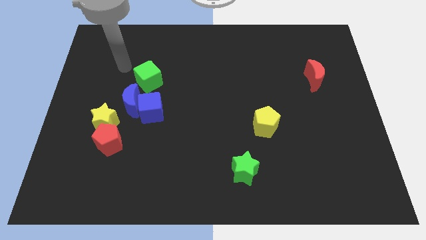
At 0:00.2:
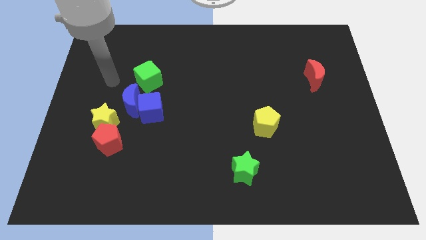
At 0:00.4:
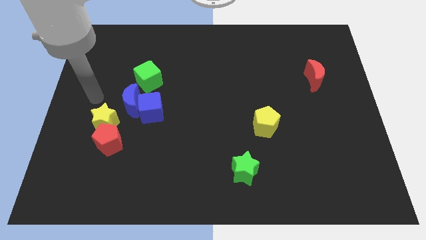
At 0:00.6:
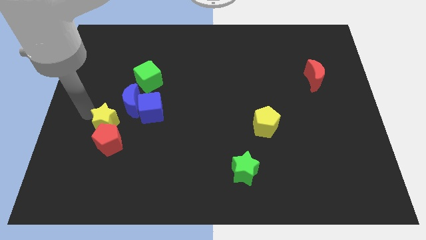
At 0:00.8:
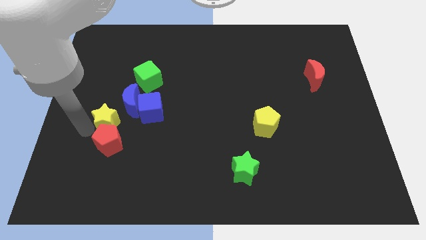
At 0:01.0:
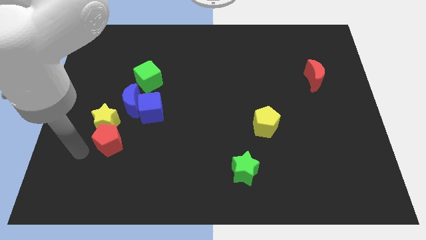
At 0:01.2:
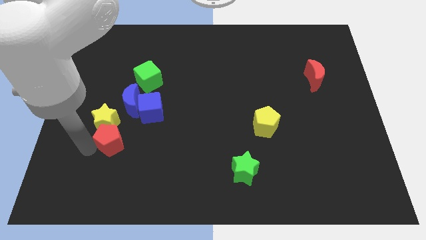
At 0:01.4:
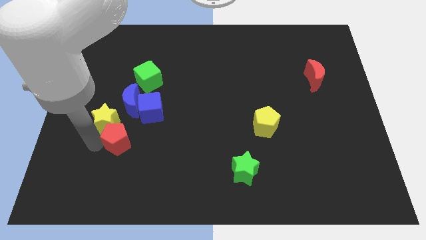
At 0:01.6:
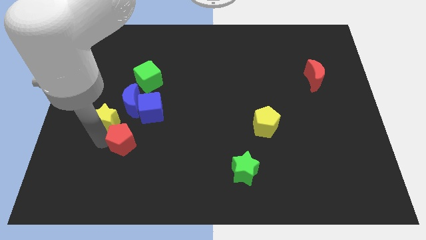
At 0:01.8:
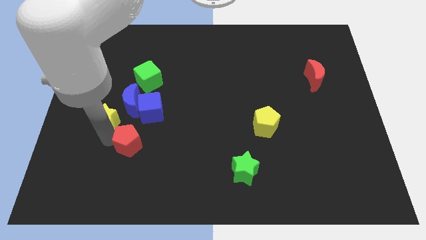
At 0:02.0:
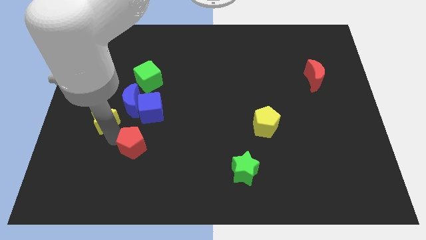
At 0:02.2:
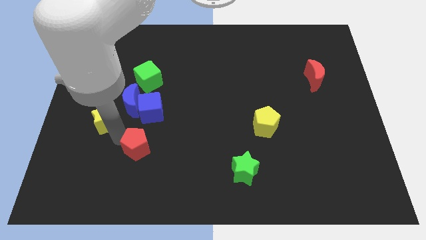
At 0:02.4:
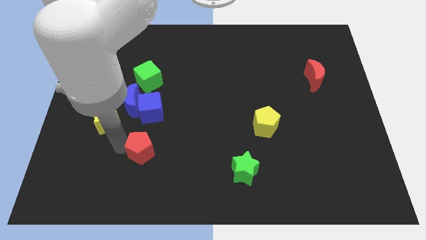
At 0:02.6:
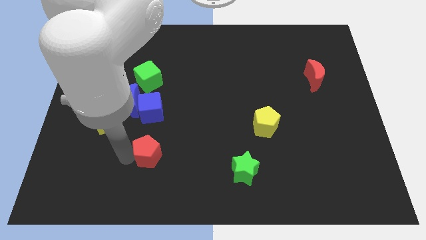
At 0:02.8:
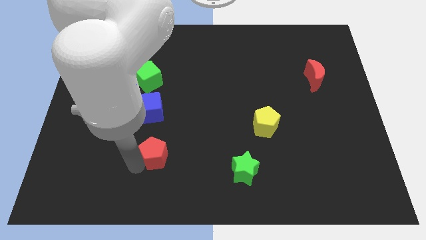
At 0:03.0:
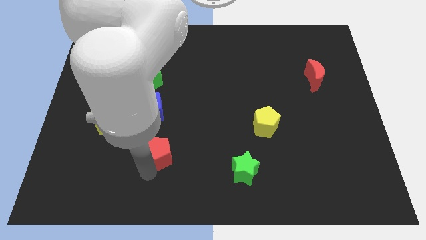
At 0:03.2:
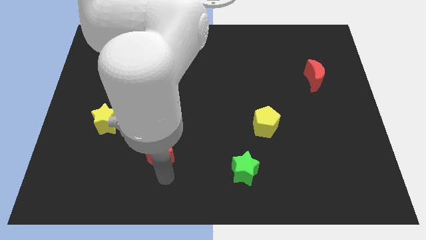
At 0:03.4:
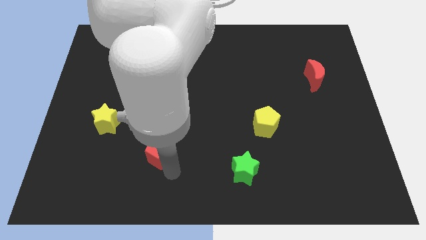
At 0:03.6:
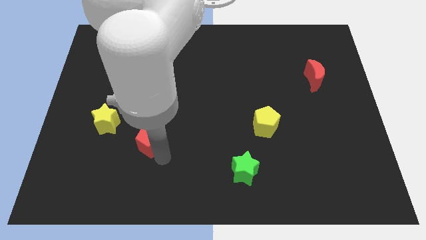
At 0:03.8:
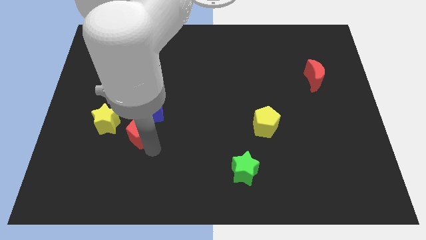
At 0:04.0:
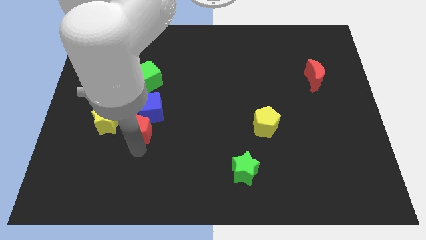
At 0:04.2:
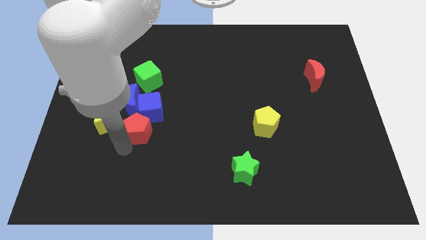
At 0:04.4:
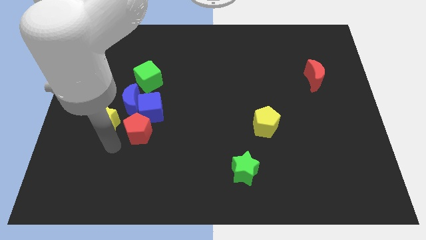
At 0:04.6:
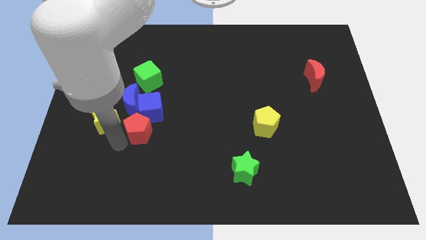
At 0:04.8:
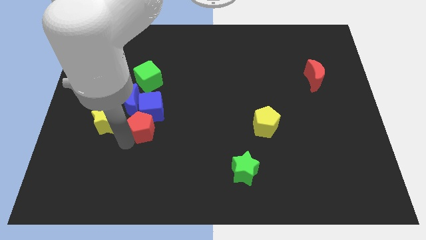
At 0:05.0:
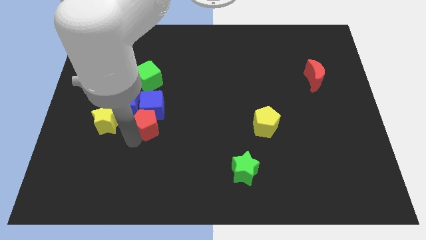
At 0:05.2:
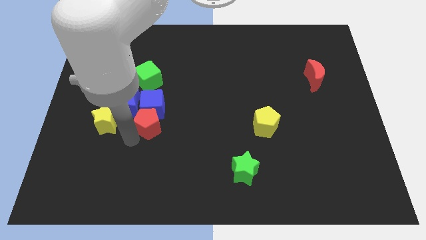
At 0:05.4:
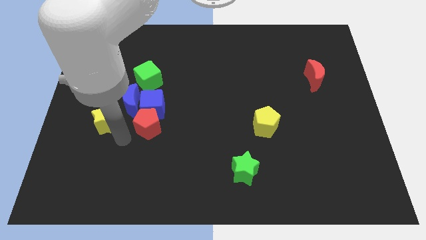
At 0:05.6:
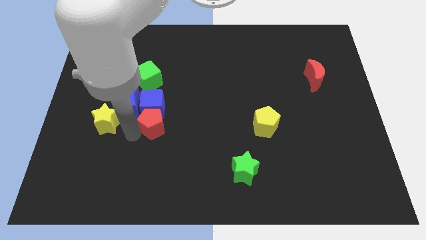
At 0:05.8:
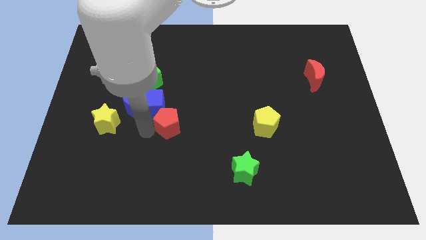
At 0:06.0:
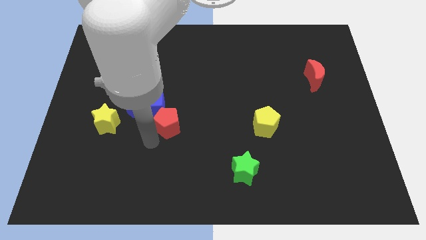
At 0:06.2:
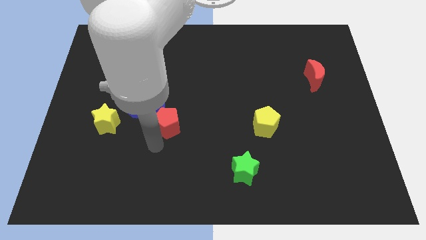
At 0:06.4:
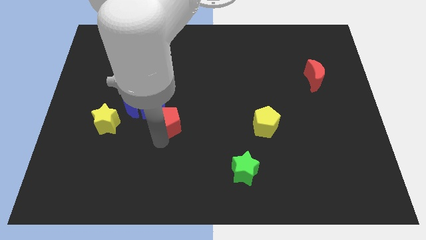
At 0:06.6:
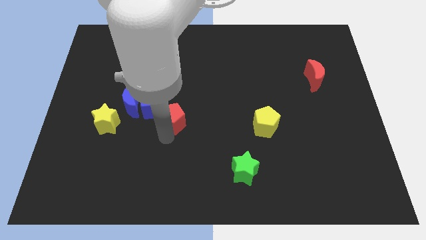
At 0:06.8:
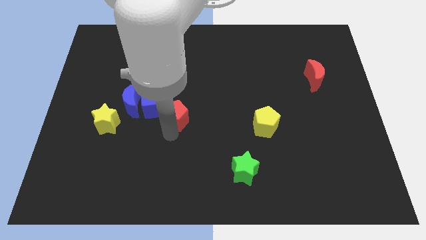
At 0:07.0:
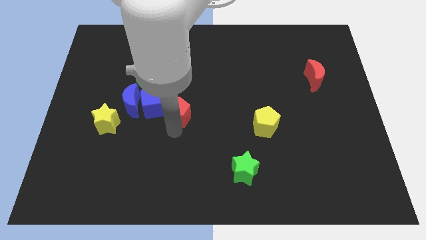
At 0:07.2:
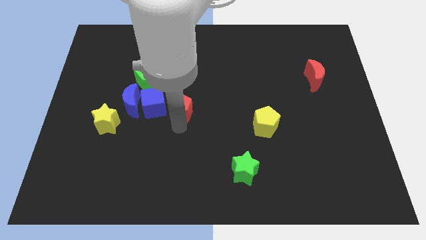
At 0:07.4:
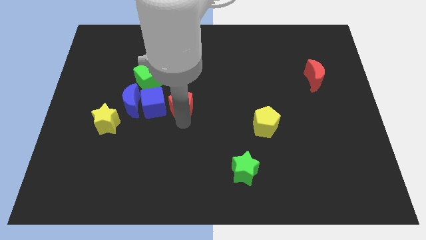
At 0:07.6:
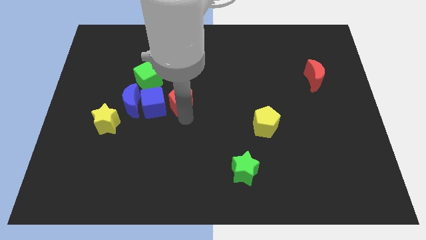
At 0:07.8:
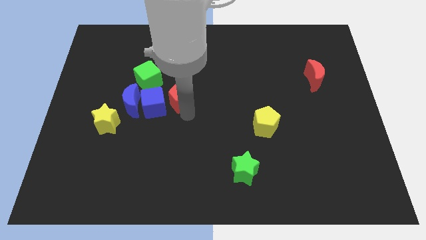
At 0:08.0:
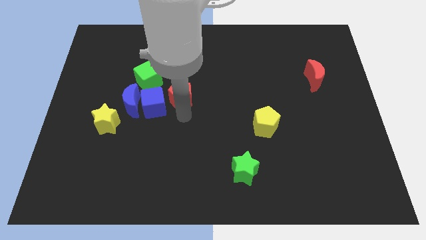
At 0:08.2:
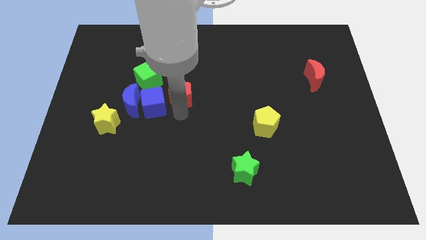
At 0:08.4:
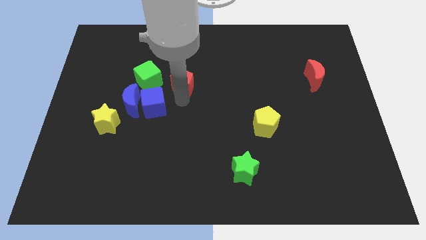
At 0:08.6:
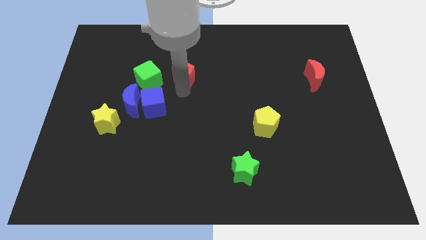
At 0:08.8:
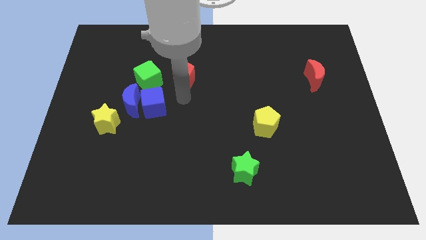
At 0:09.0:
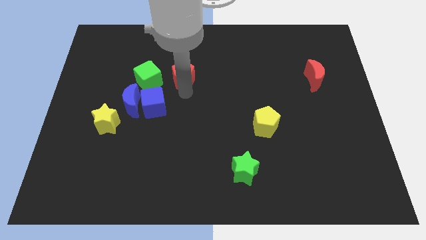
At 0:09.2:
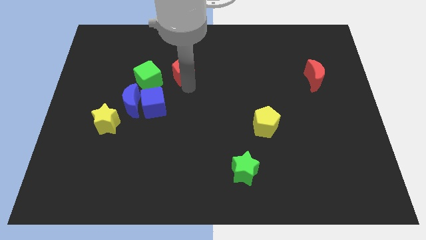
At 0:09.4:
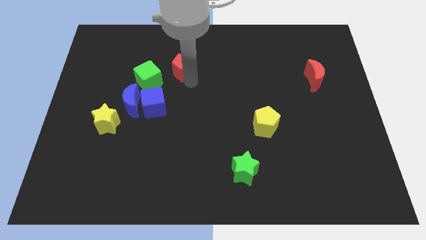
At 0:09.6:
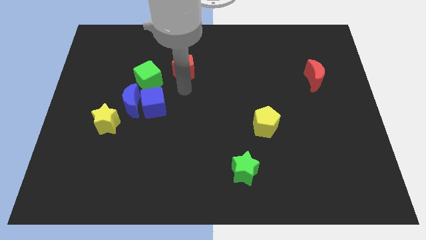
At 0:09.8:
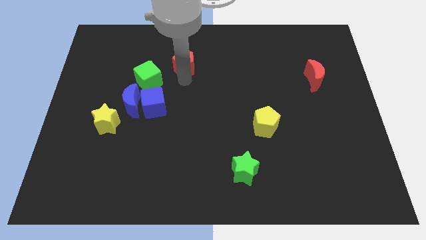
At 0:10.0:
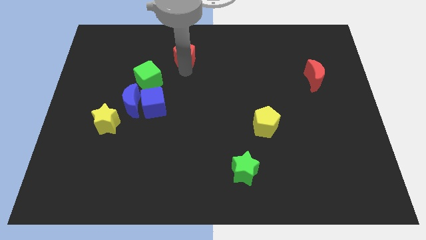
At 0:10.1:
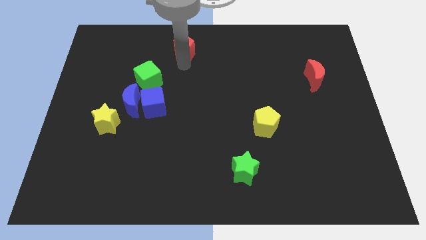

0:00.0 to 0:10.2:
put the red pentagon to the top

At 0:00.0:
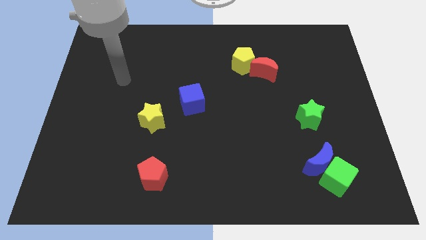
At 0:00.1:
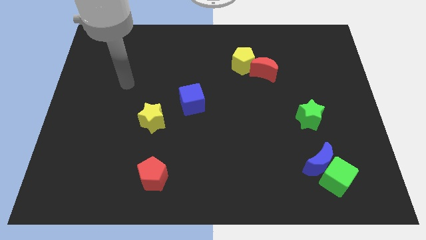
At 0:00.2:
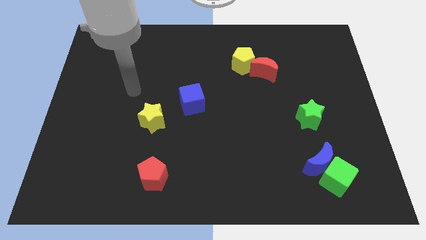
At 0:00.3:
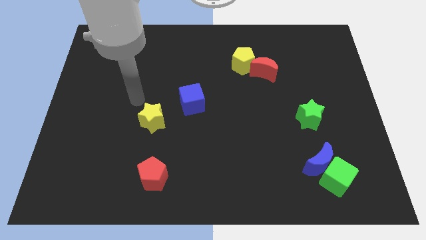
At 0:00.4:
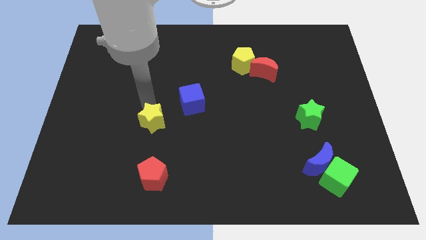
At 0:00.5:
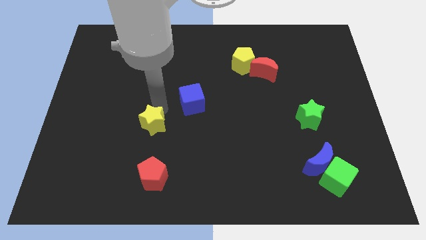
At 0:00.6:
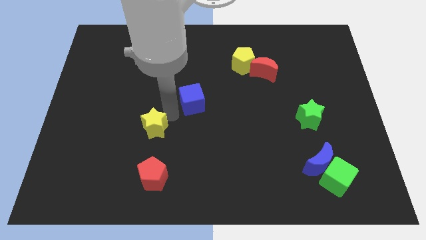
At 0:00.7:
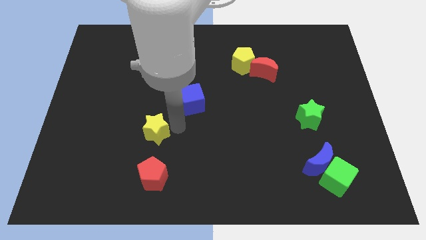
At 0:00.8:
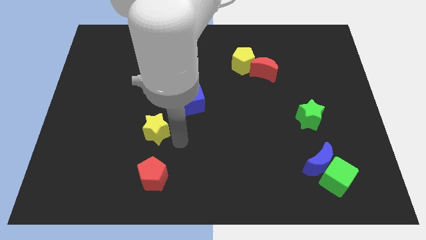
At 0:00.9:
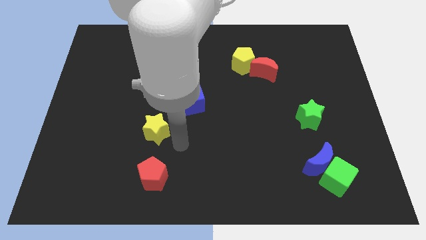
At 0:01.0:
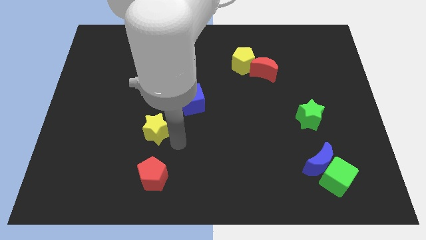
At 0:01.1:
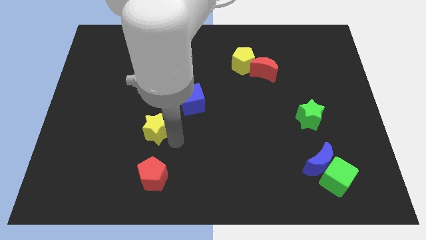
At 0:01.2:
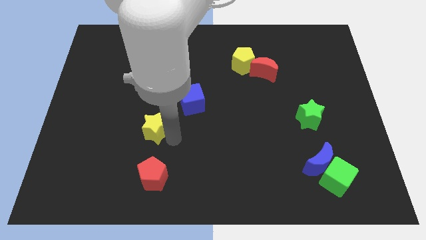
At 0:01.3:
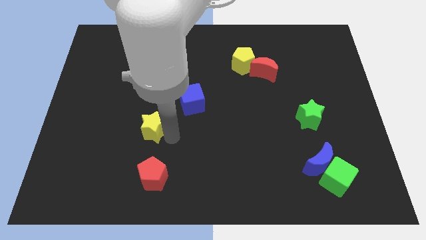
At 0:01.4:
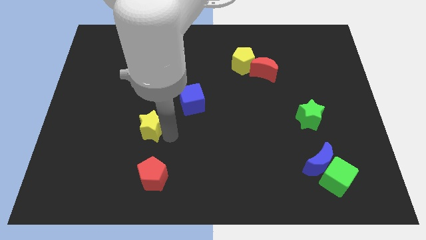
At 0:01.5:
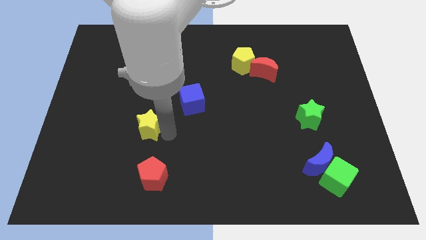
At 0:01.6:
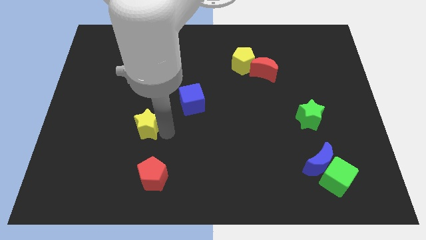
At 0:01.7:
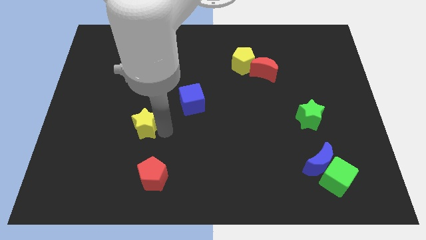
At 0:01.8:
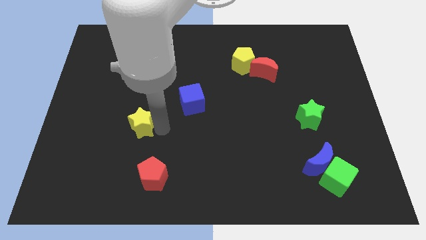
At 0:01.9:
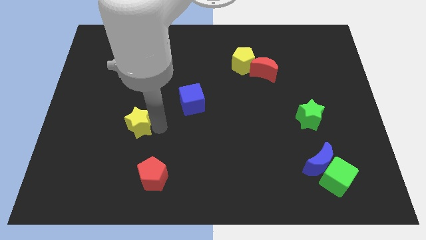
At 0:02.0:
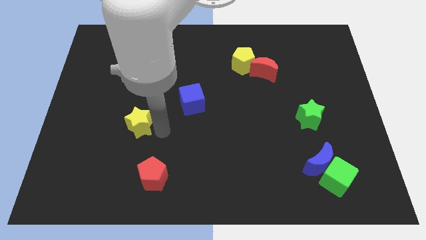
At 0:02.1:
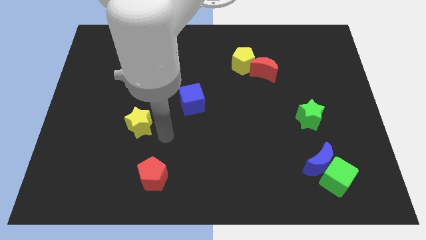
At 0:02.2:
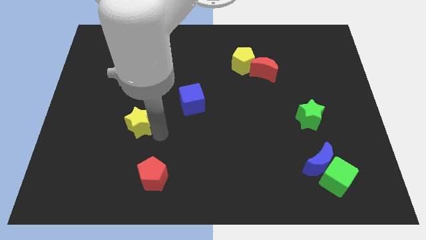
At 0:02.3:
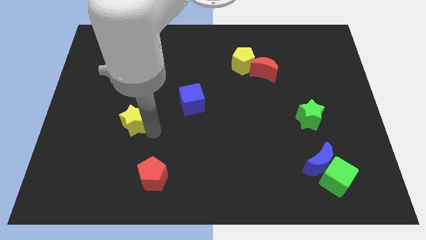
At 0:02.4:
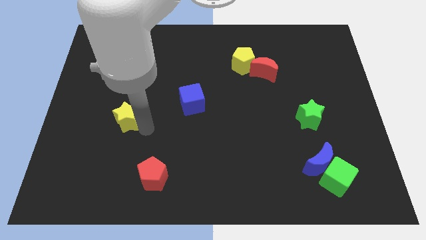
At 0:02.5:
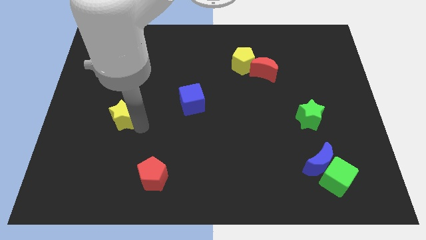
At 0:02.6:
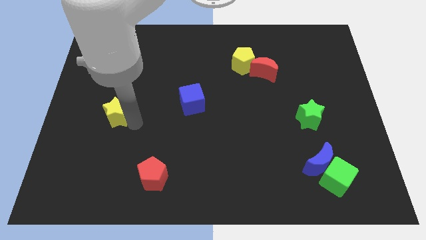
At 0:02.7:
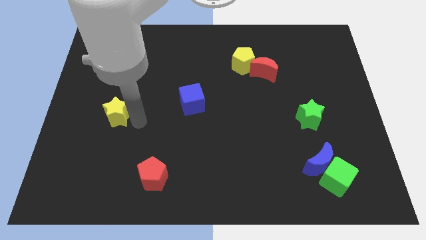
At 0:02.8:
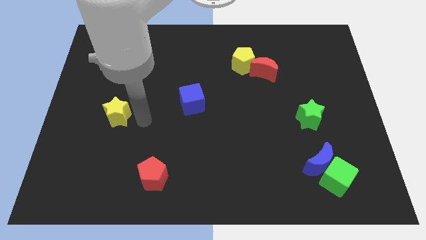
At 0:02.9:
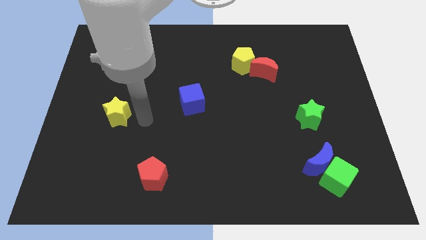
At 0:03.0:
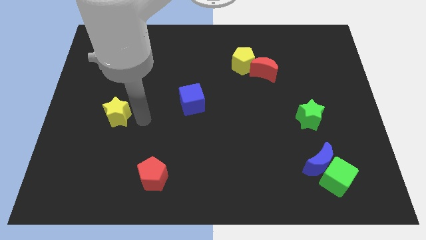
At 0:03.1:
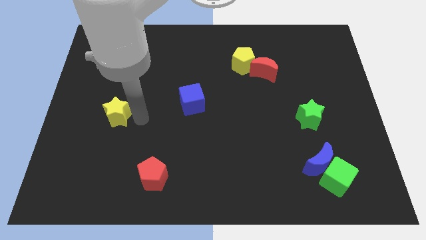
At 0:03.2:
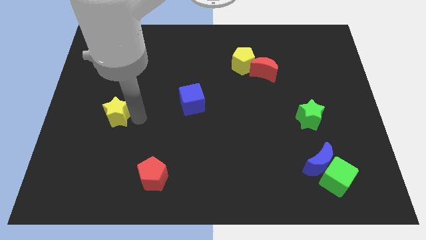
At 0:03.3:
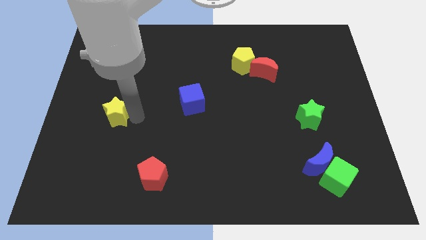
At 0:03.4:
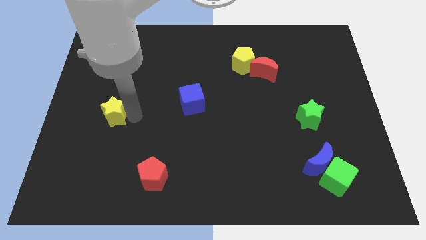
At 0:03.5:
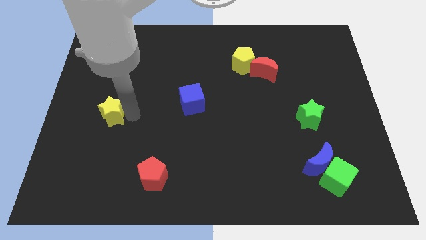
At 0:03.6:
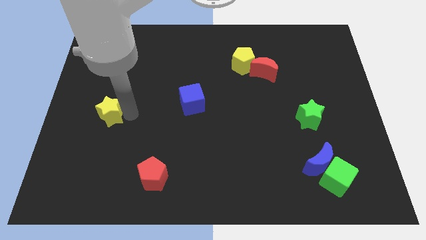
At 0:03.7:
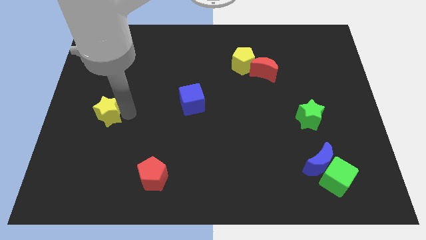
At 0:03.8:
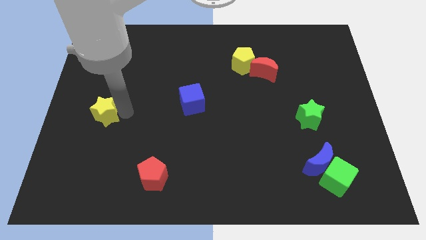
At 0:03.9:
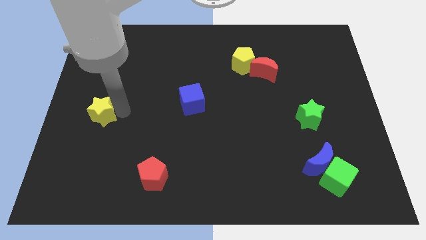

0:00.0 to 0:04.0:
push the yellow star to the left side
